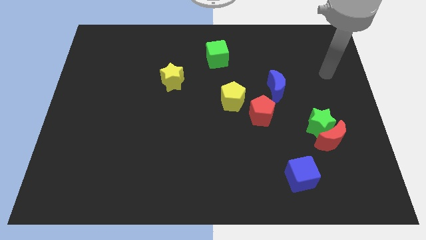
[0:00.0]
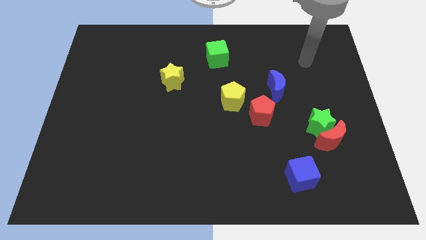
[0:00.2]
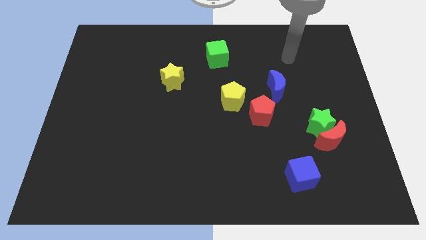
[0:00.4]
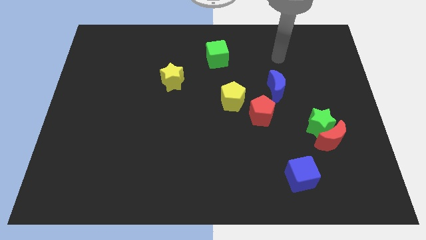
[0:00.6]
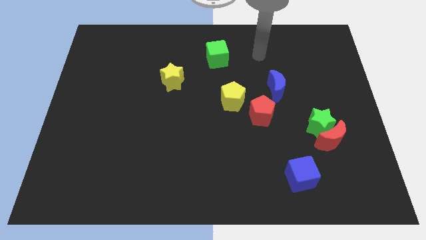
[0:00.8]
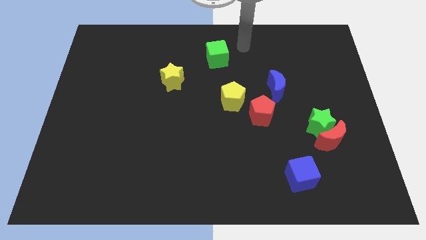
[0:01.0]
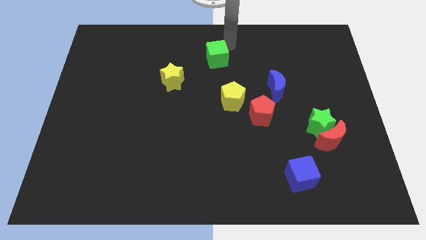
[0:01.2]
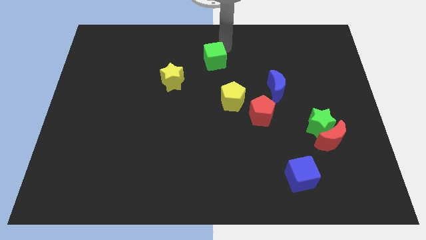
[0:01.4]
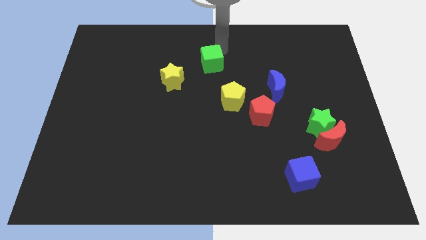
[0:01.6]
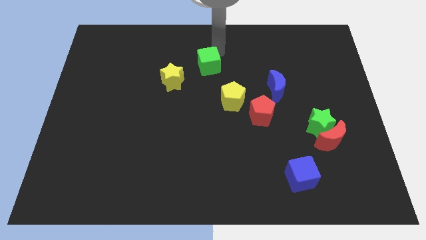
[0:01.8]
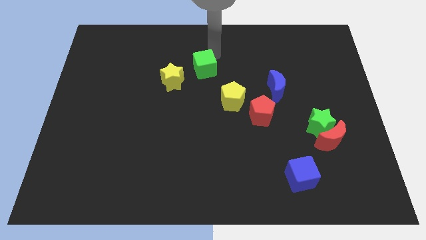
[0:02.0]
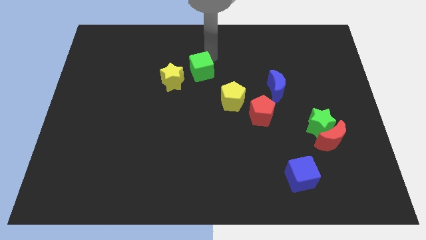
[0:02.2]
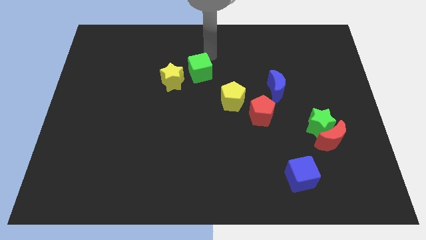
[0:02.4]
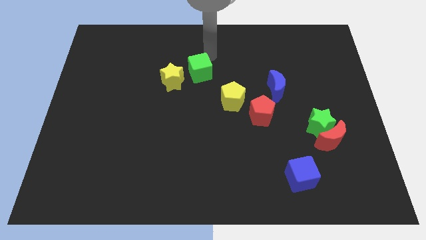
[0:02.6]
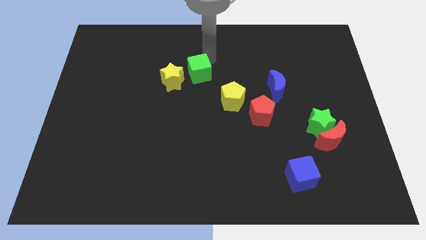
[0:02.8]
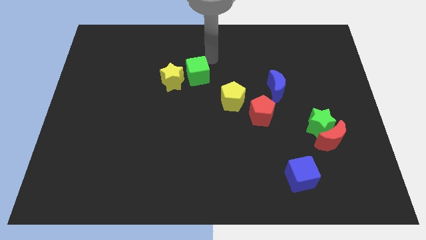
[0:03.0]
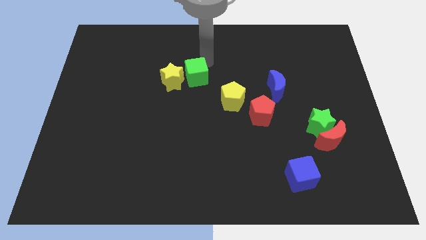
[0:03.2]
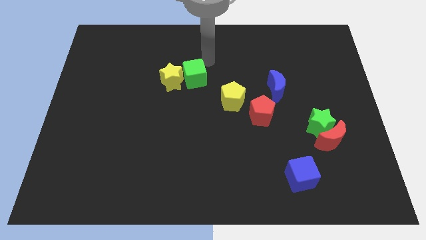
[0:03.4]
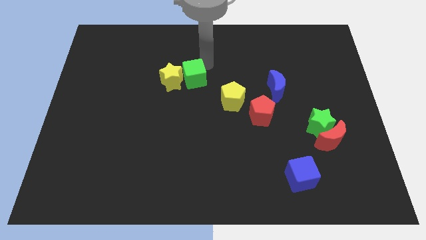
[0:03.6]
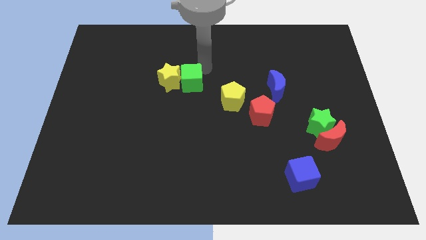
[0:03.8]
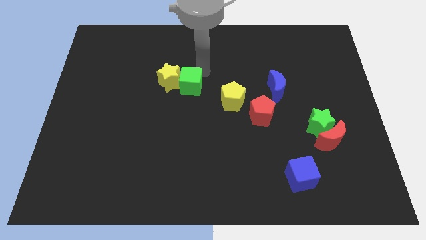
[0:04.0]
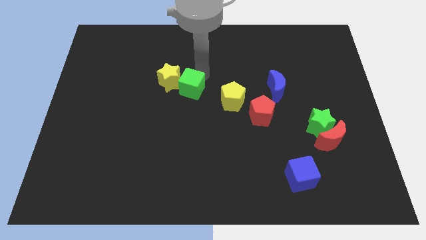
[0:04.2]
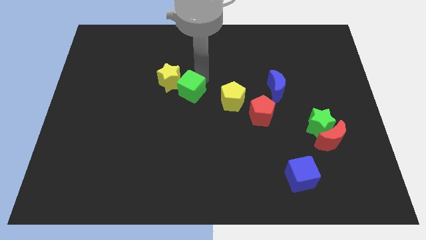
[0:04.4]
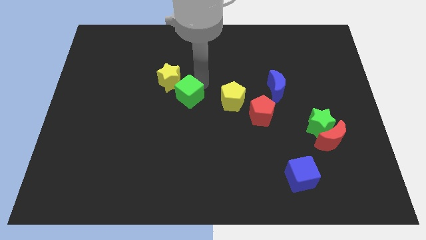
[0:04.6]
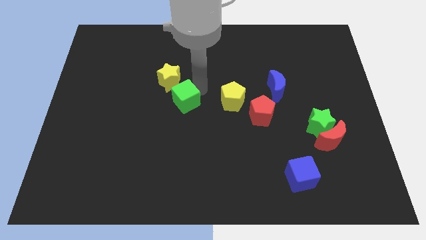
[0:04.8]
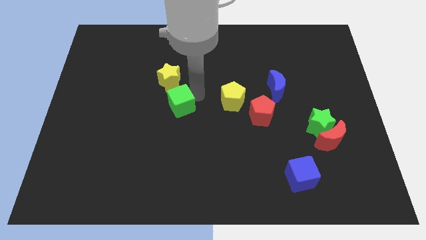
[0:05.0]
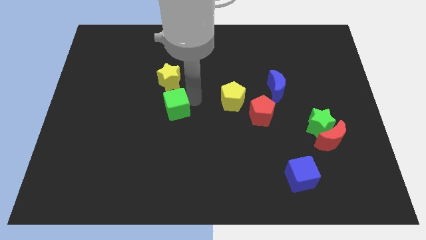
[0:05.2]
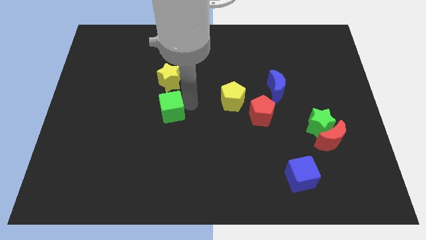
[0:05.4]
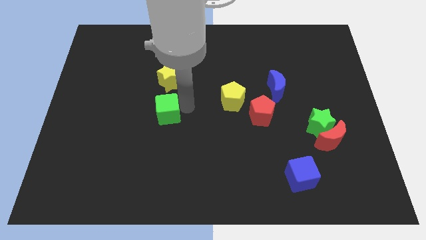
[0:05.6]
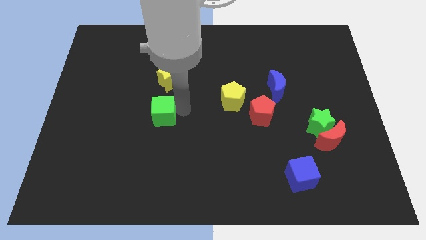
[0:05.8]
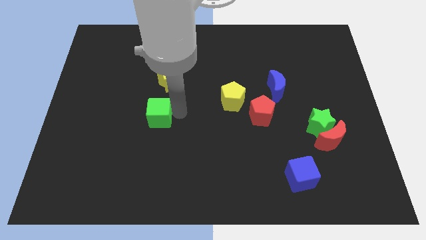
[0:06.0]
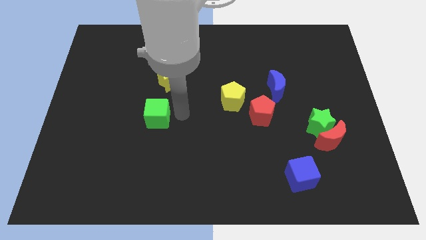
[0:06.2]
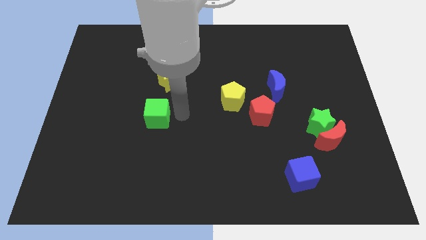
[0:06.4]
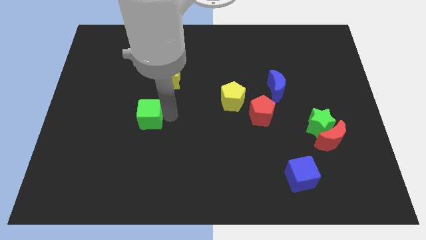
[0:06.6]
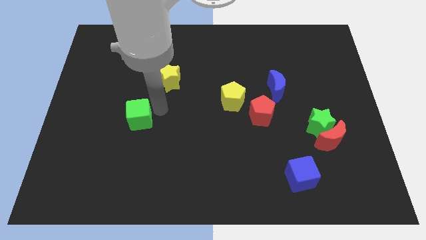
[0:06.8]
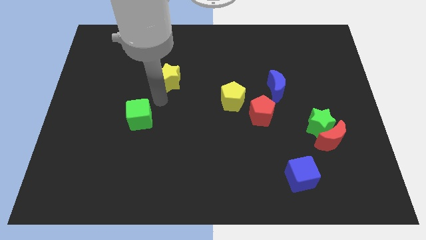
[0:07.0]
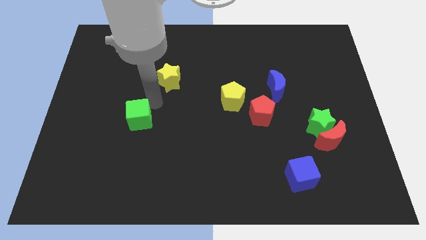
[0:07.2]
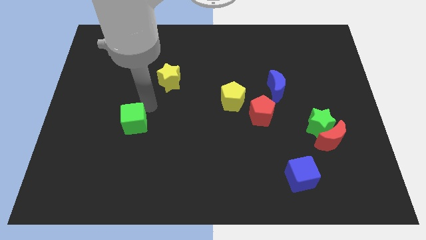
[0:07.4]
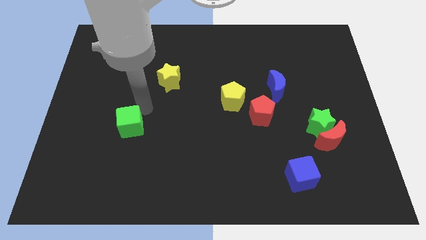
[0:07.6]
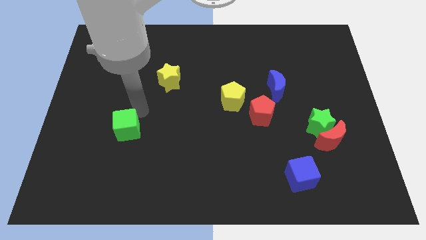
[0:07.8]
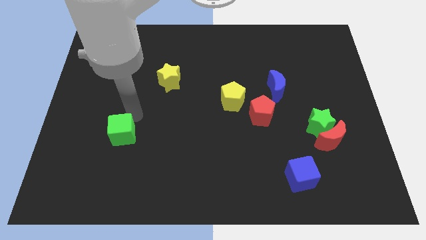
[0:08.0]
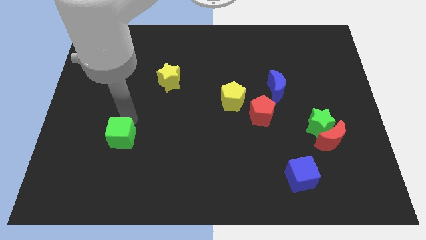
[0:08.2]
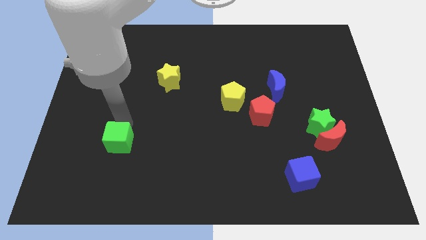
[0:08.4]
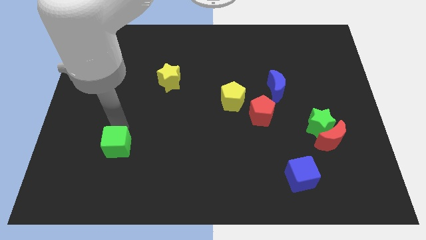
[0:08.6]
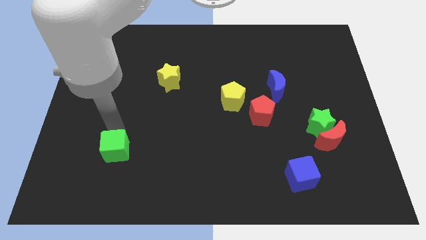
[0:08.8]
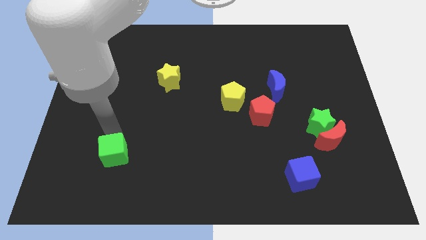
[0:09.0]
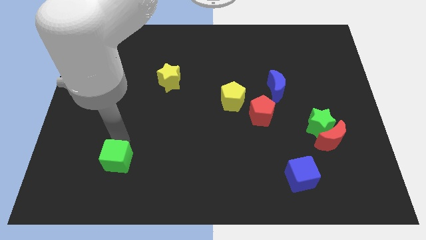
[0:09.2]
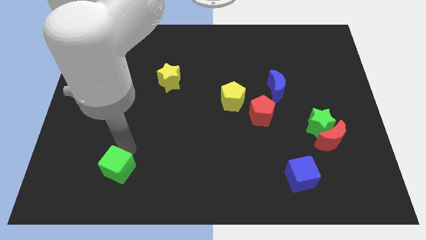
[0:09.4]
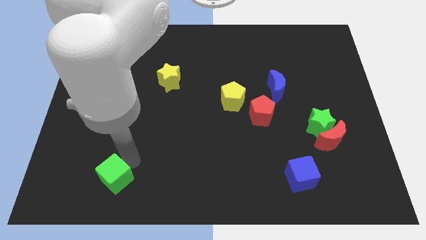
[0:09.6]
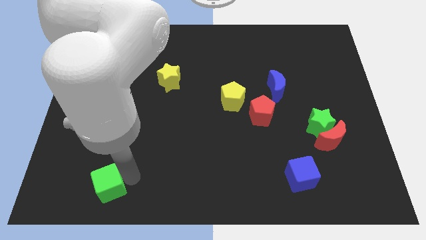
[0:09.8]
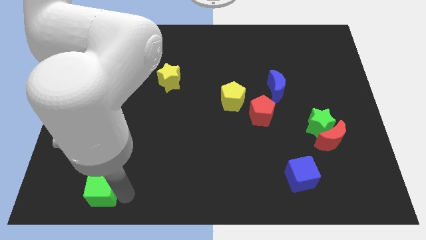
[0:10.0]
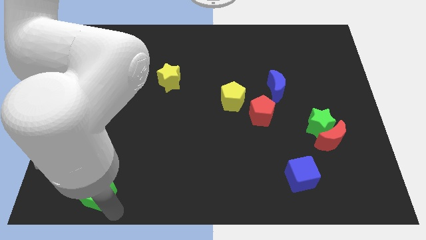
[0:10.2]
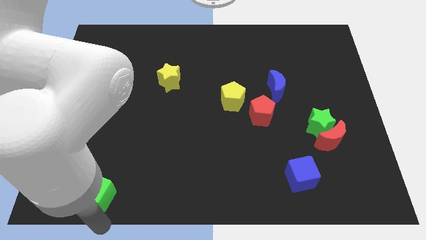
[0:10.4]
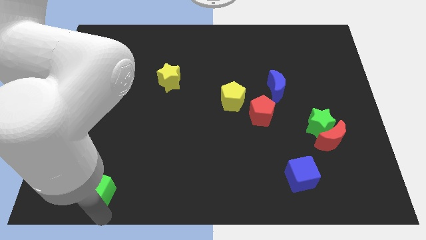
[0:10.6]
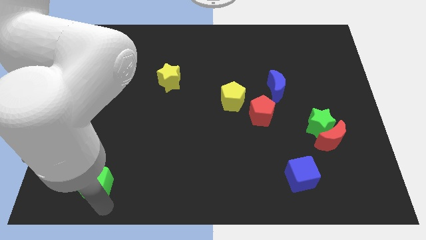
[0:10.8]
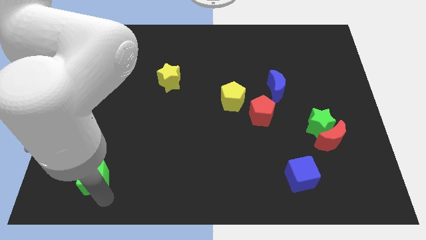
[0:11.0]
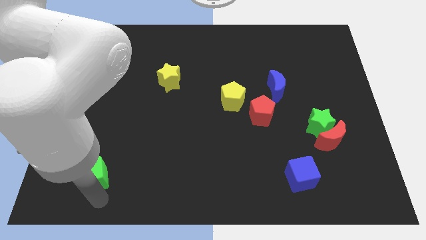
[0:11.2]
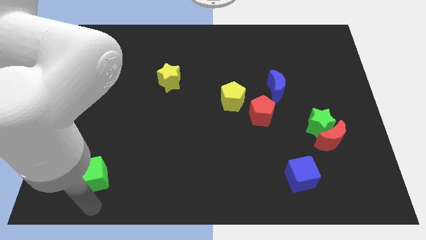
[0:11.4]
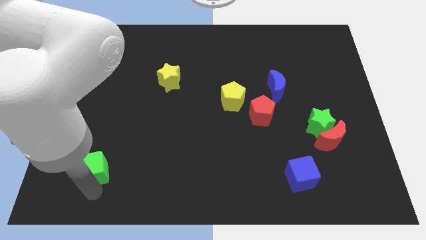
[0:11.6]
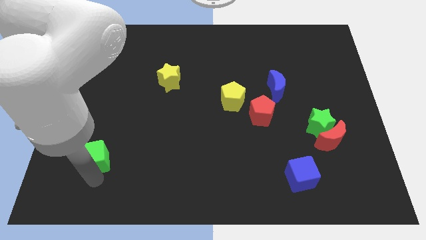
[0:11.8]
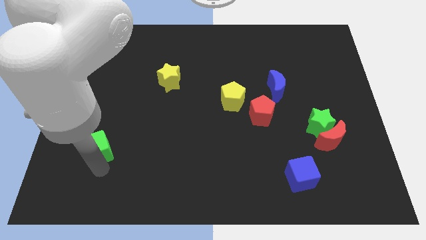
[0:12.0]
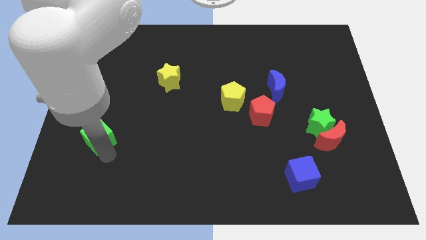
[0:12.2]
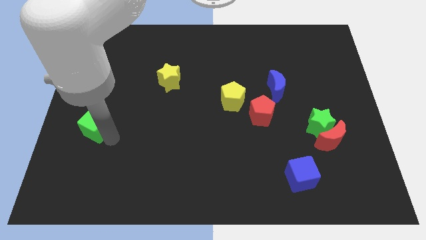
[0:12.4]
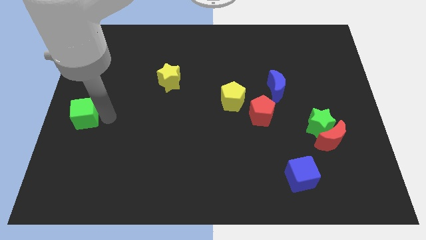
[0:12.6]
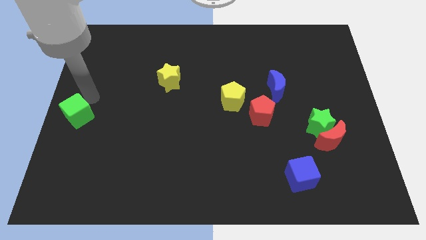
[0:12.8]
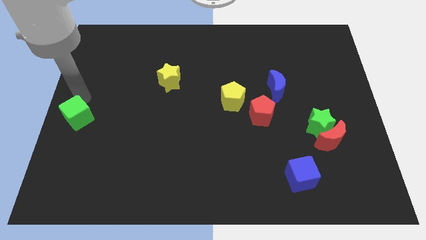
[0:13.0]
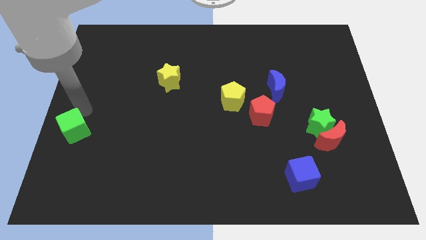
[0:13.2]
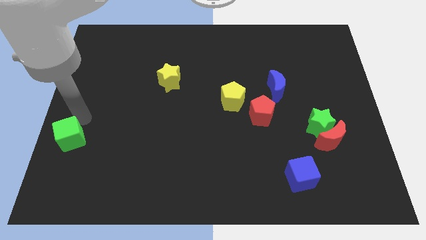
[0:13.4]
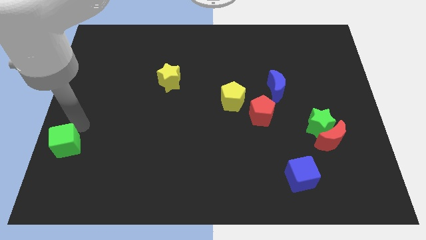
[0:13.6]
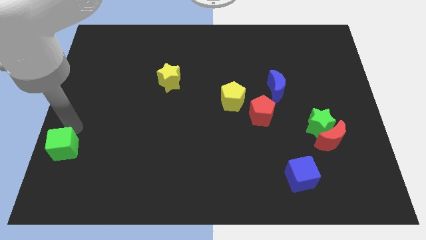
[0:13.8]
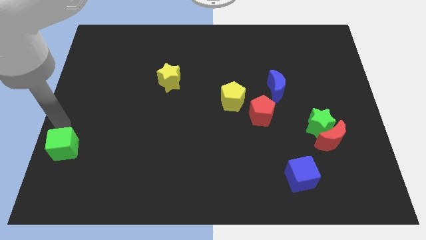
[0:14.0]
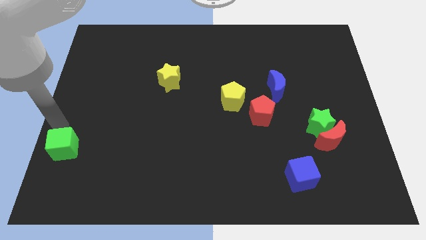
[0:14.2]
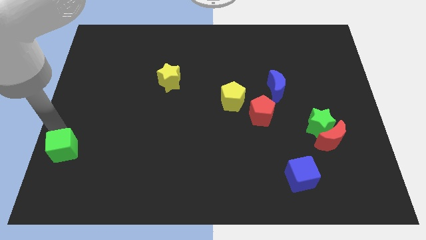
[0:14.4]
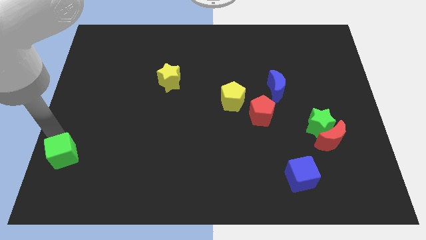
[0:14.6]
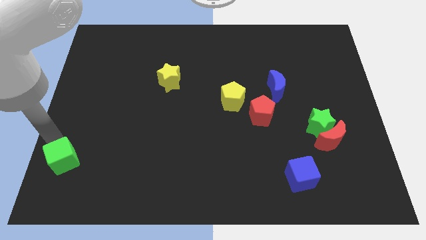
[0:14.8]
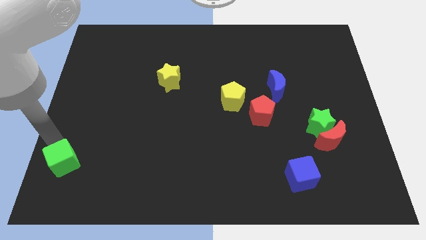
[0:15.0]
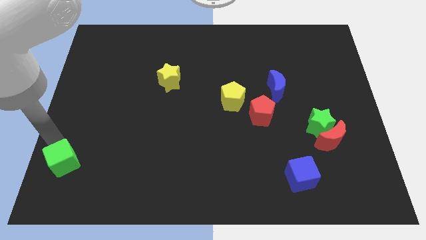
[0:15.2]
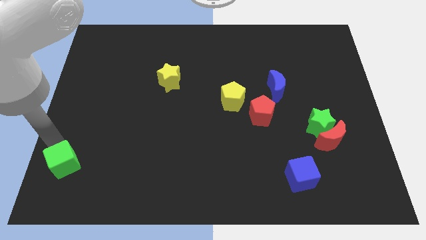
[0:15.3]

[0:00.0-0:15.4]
move the green cube to the lower left corner
